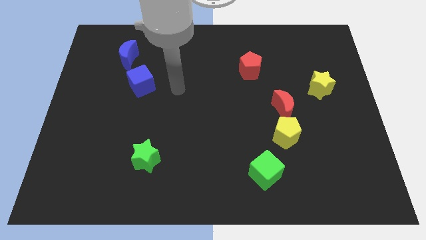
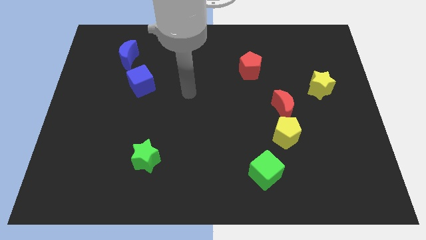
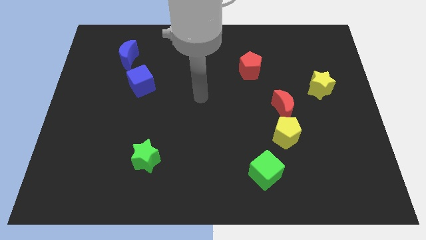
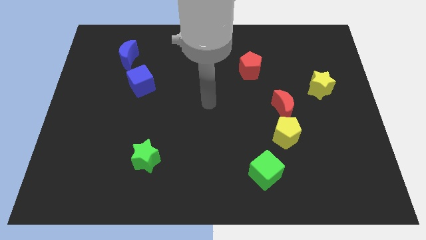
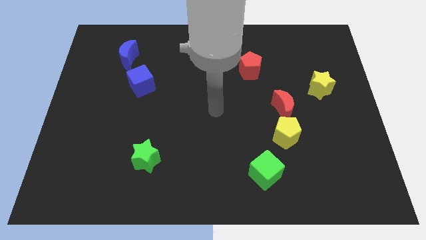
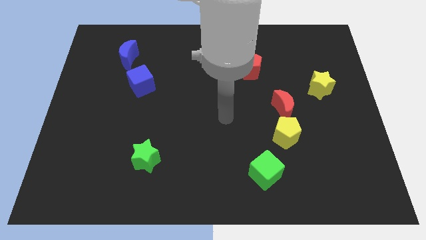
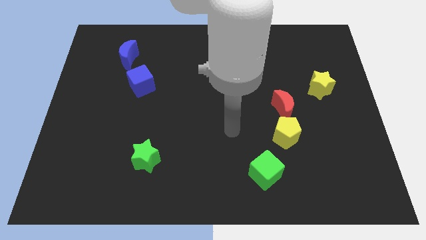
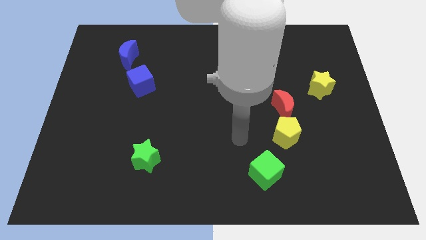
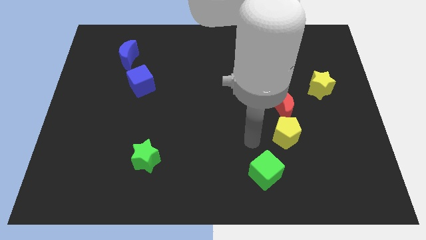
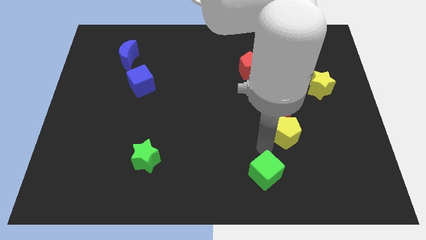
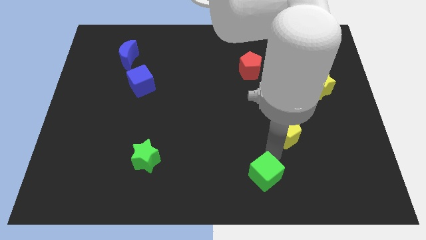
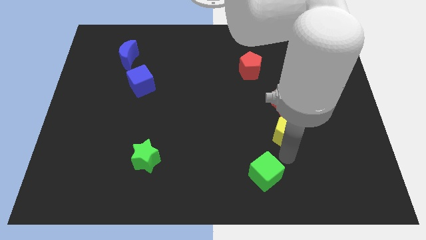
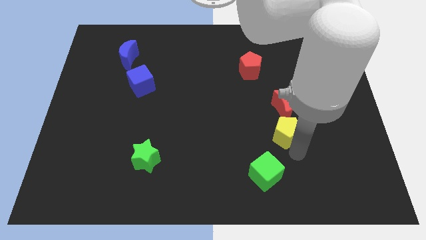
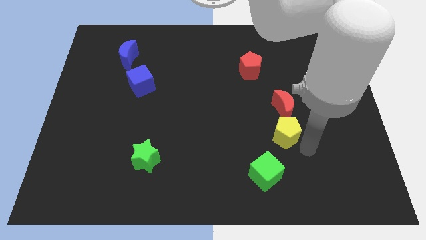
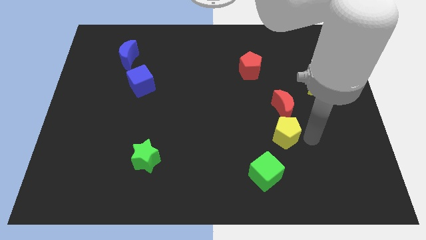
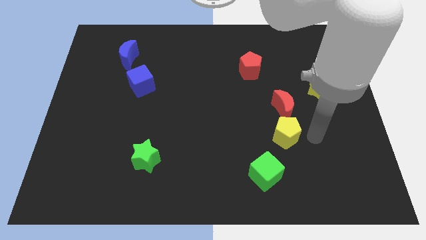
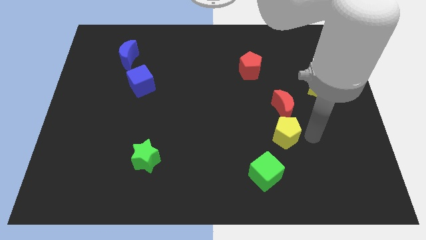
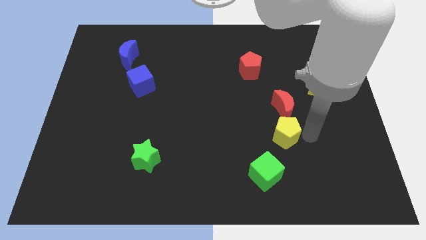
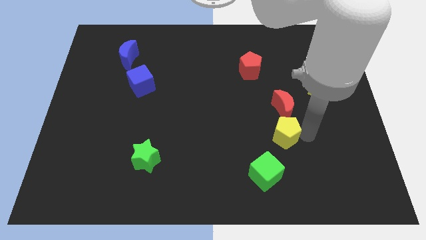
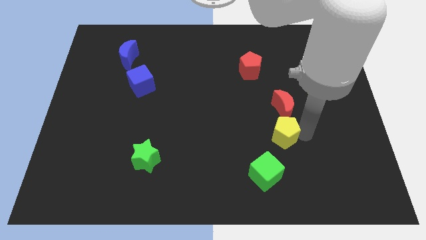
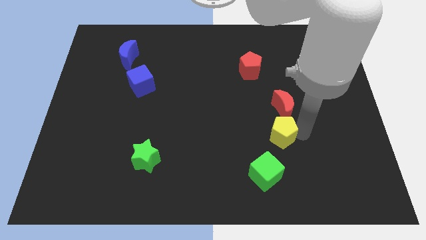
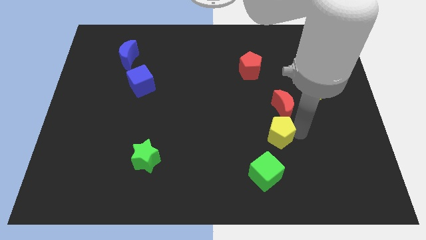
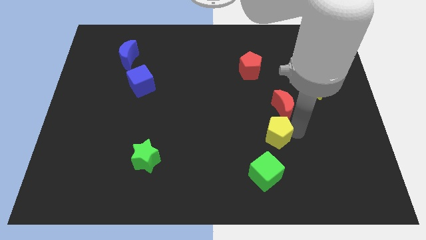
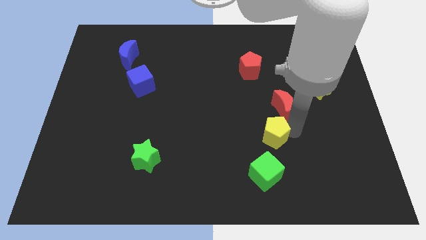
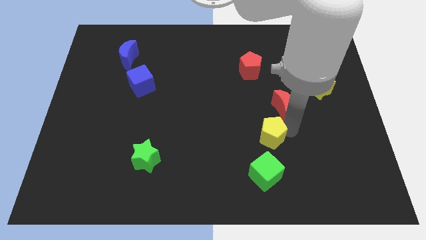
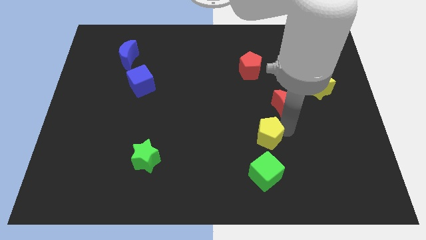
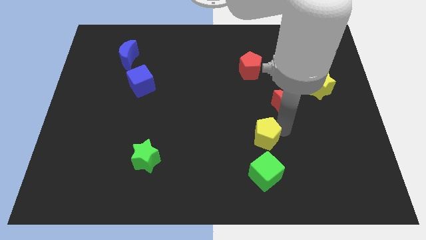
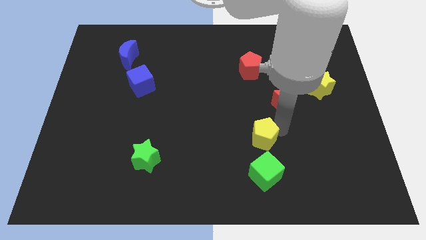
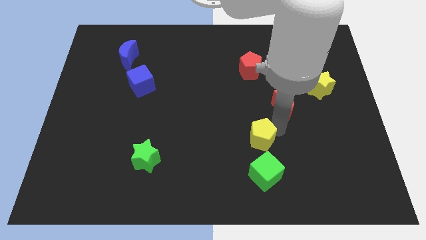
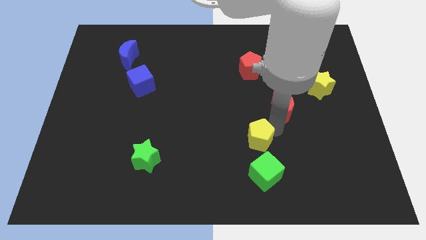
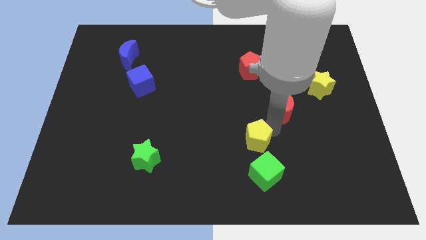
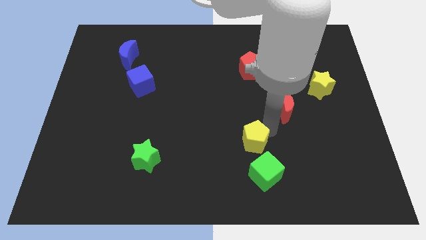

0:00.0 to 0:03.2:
slightly move the yellow pentagon to the left

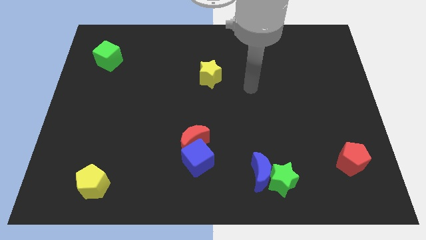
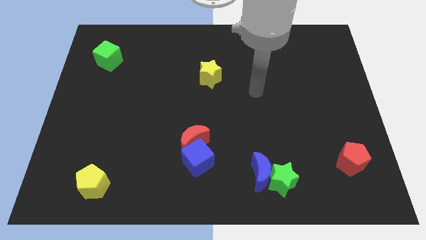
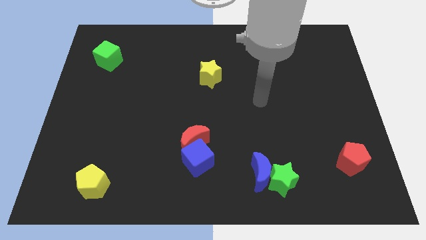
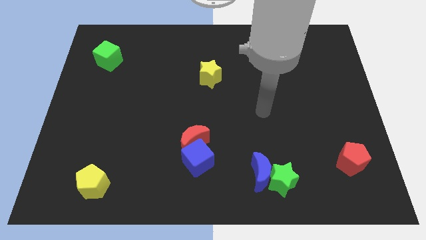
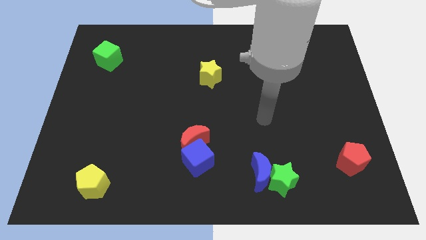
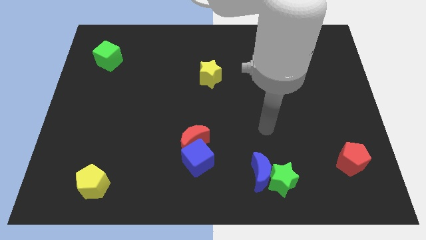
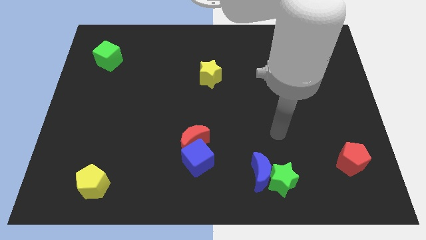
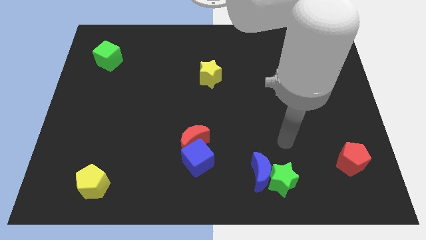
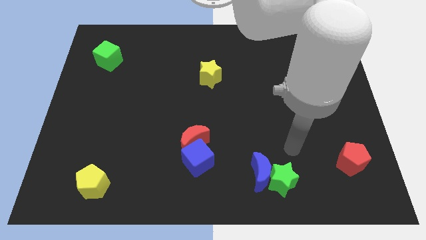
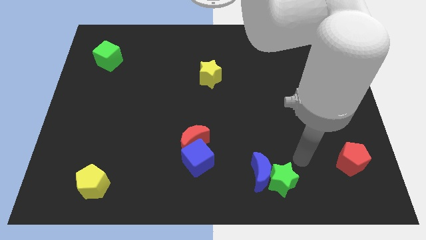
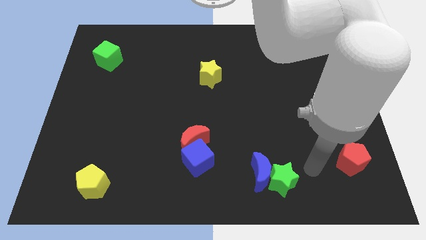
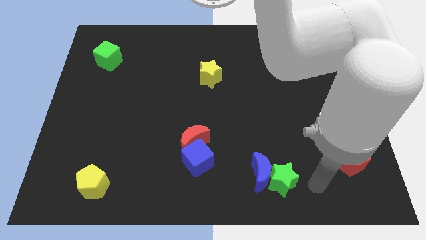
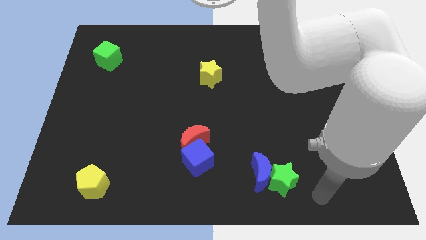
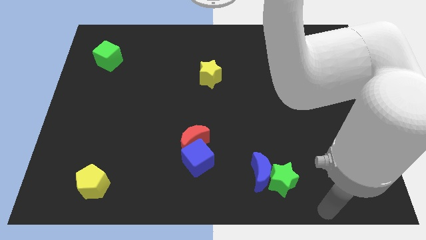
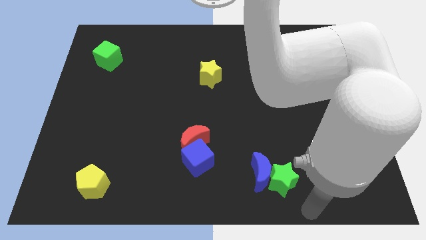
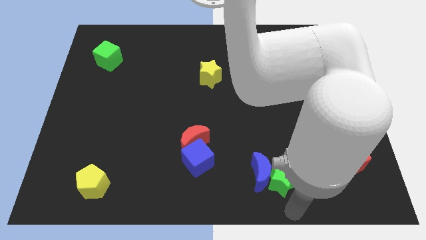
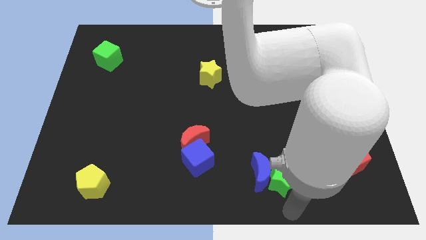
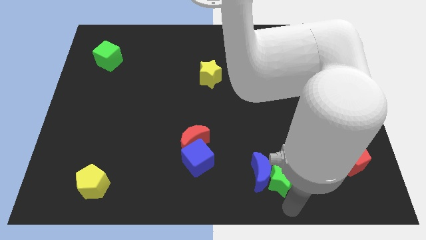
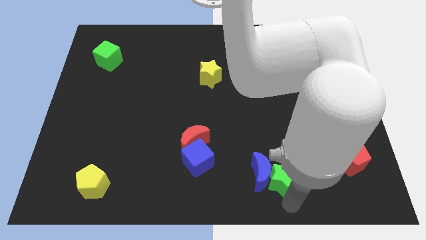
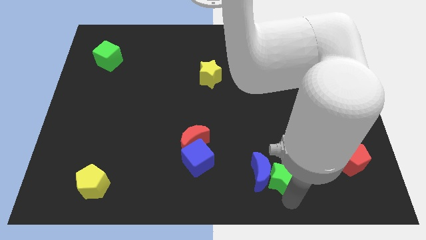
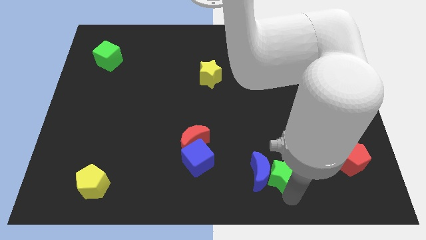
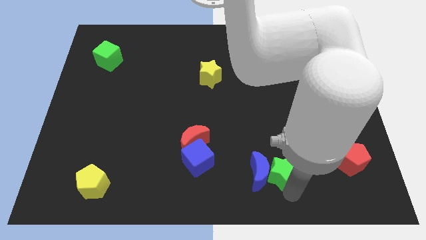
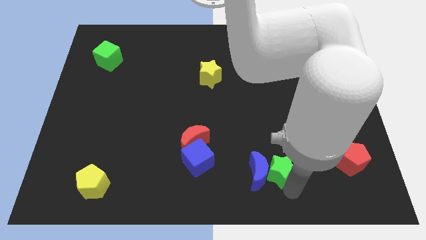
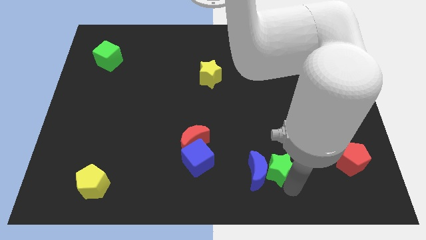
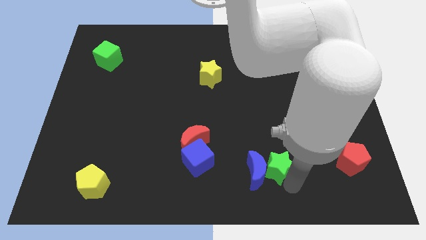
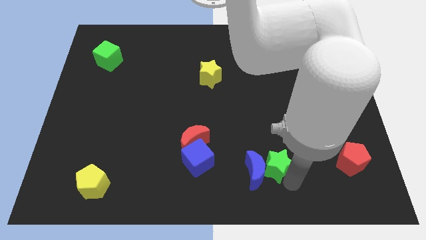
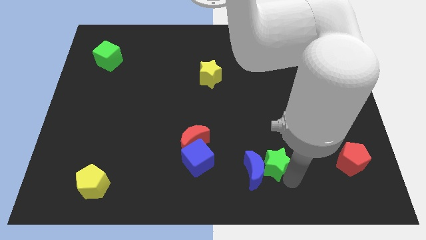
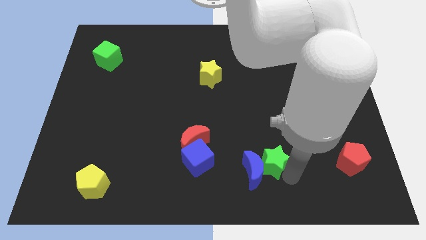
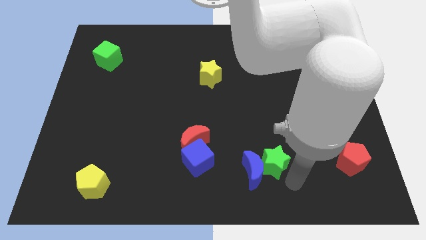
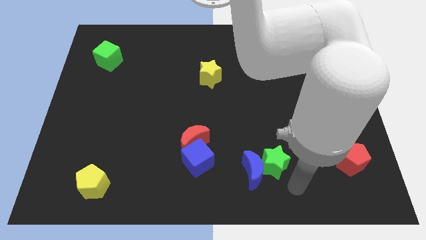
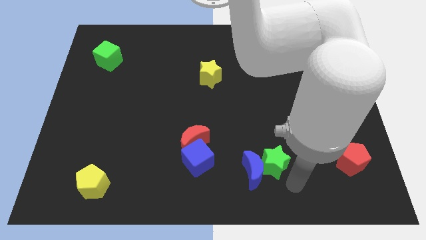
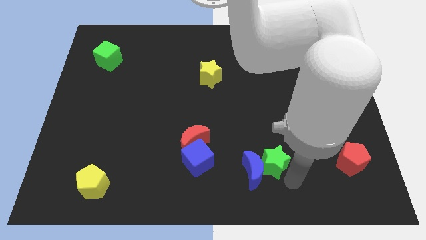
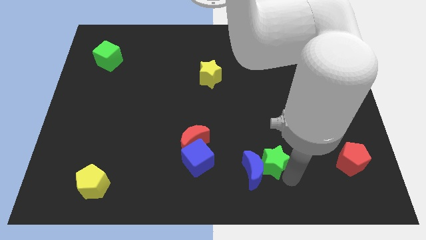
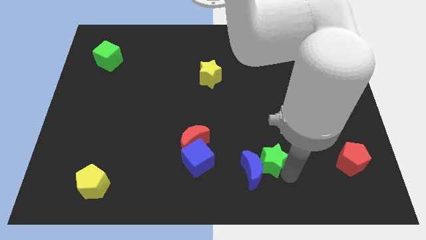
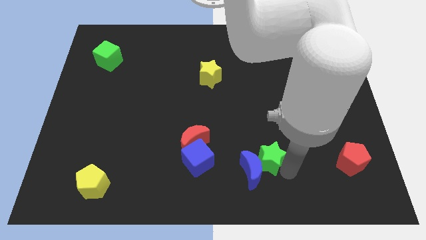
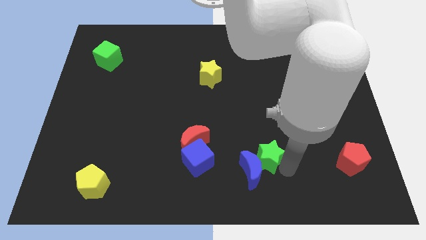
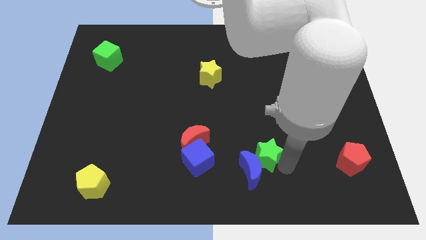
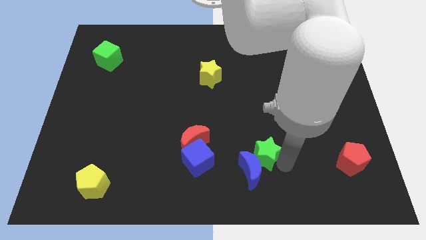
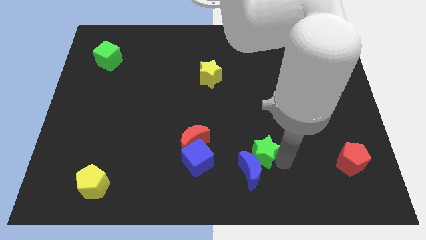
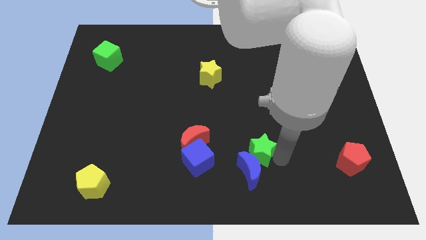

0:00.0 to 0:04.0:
push the green star a little up and to the left

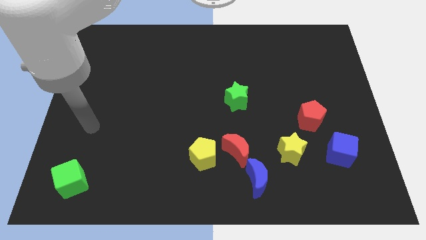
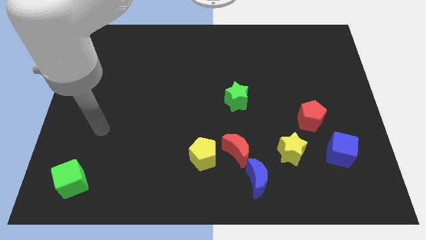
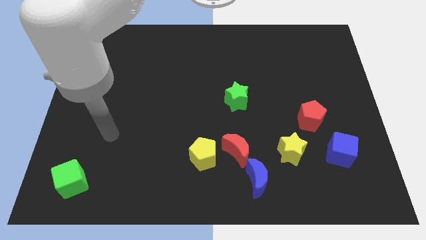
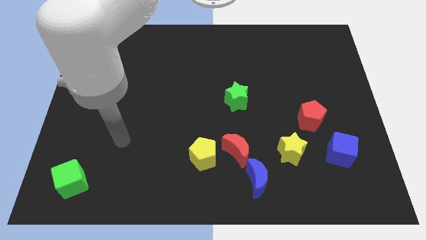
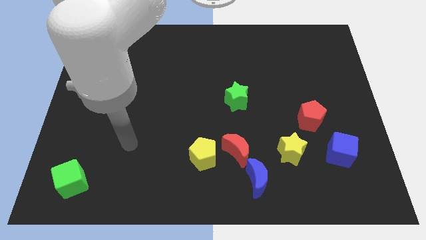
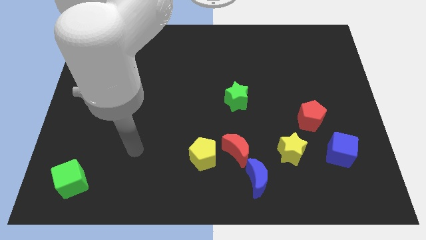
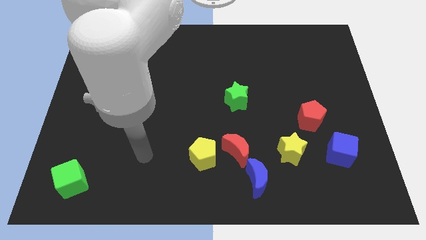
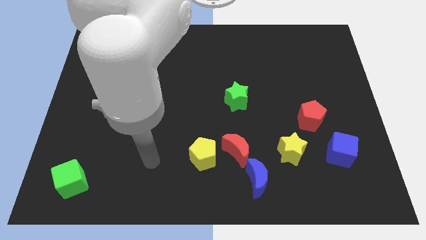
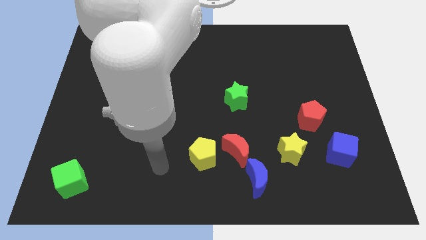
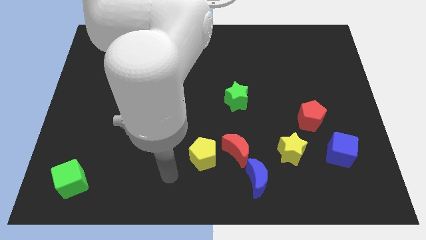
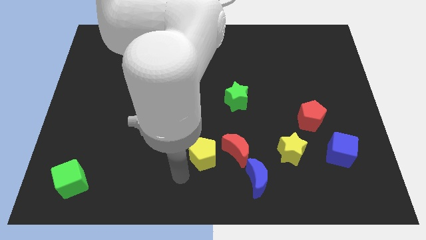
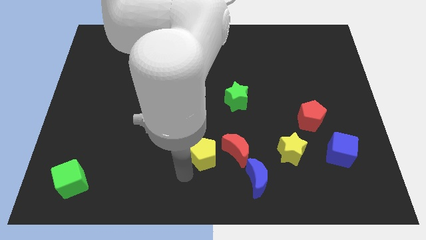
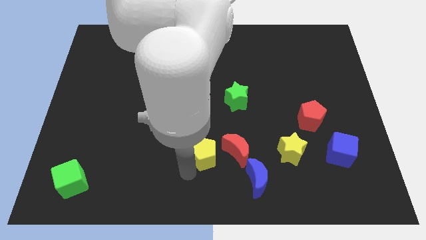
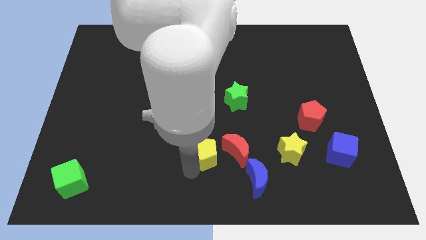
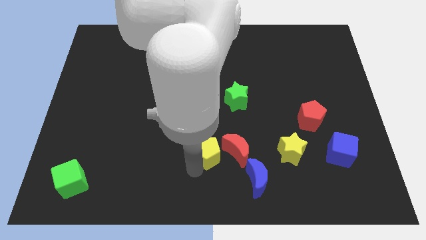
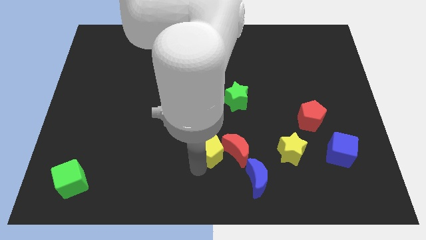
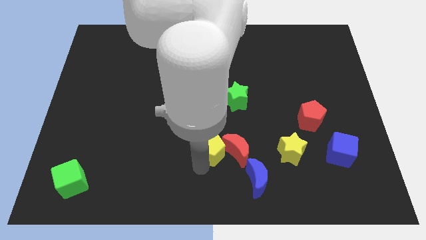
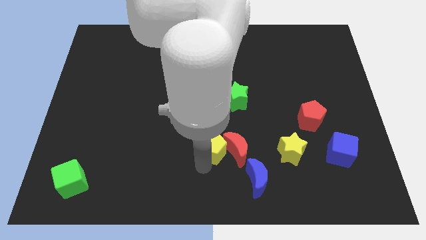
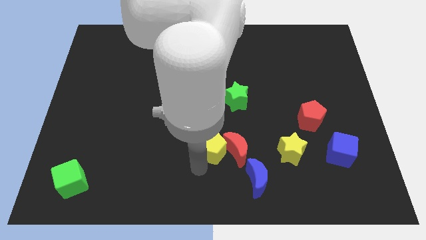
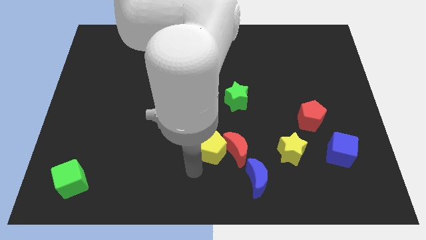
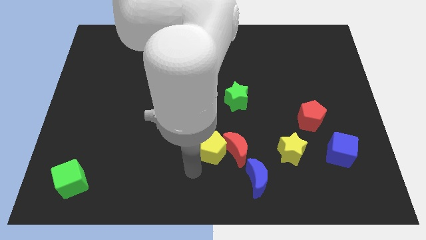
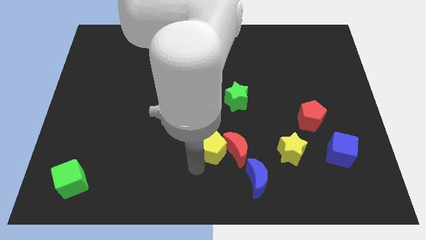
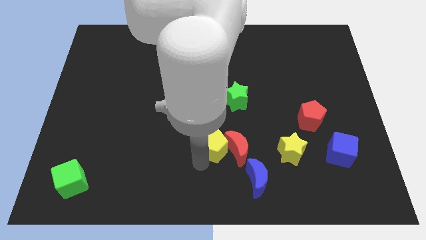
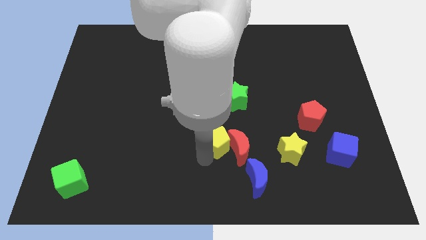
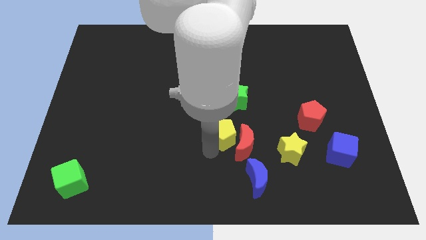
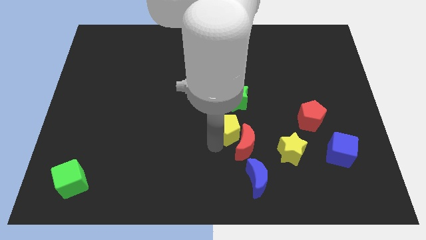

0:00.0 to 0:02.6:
slightly move the yellow pentagon upwards and then right
